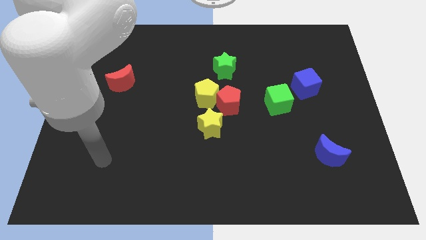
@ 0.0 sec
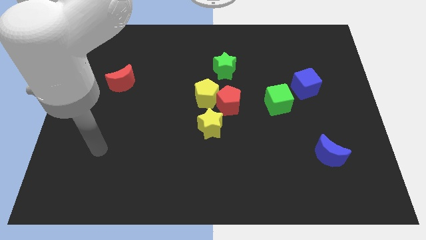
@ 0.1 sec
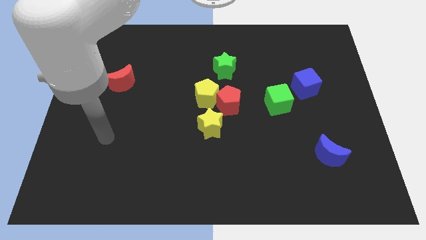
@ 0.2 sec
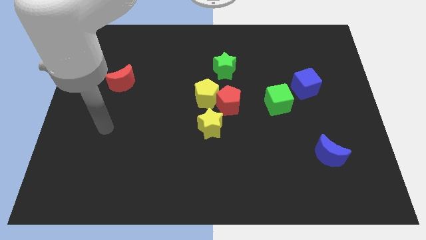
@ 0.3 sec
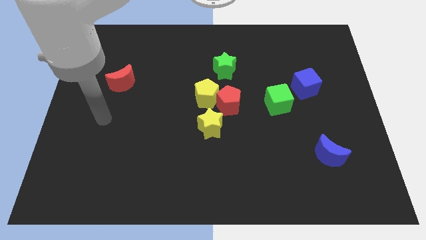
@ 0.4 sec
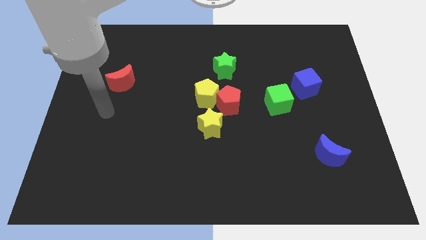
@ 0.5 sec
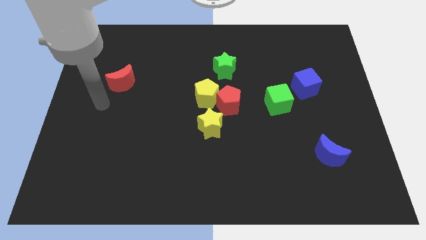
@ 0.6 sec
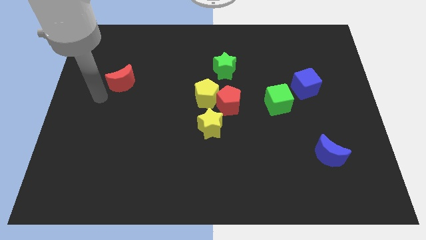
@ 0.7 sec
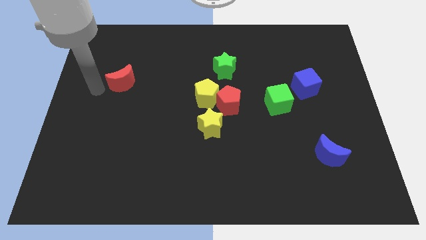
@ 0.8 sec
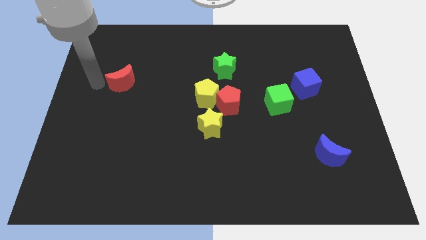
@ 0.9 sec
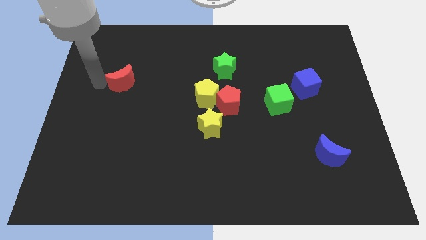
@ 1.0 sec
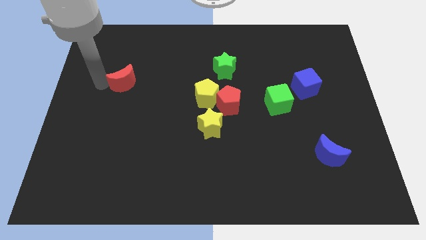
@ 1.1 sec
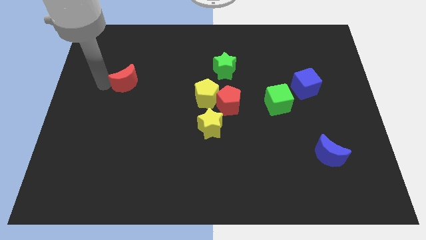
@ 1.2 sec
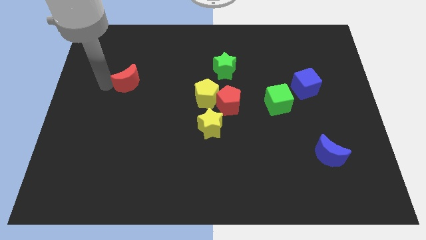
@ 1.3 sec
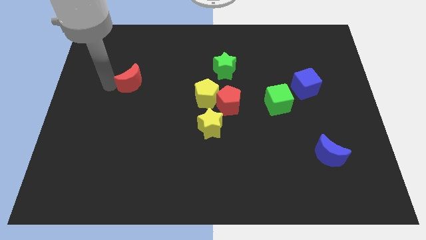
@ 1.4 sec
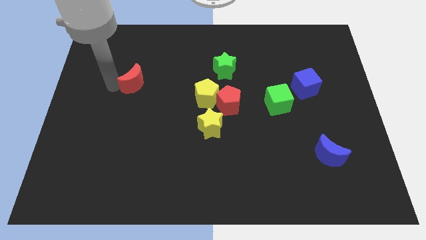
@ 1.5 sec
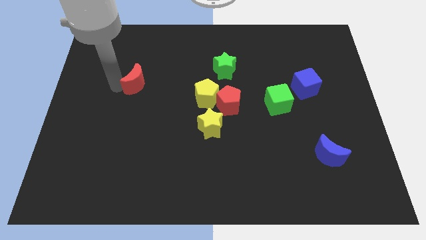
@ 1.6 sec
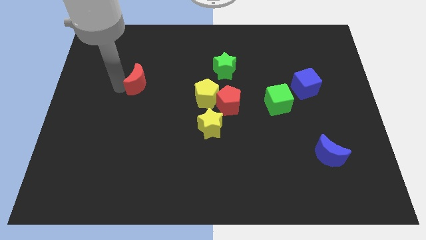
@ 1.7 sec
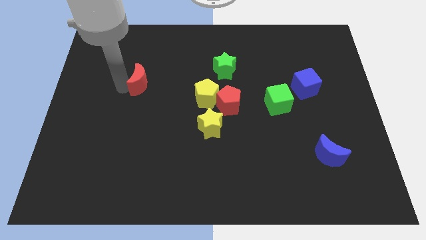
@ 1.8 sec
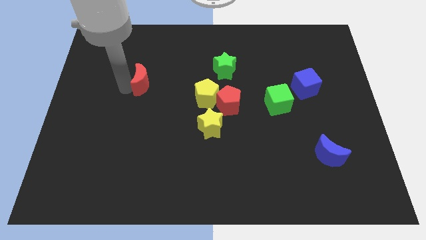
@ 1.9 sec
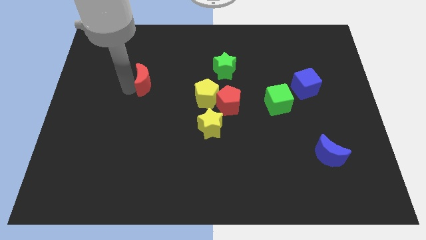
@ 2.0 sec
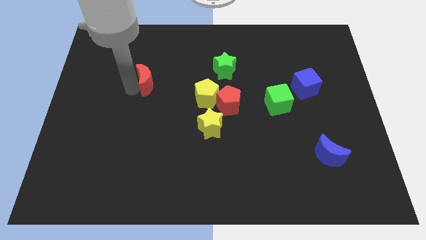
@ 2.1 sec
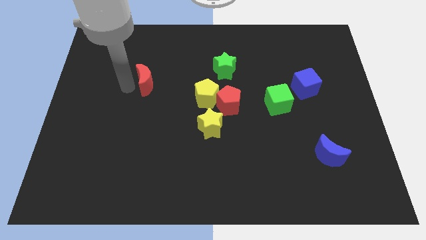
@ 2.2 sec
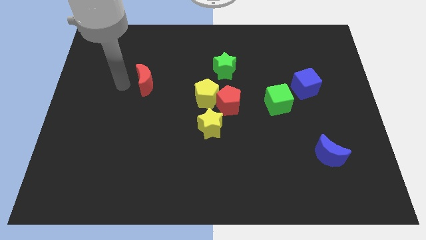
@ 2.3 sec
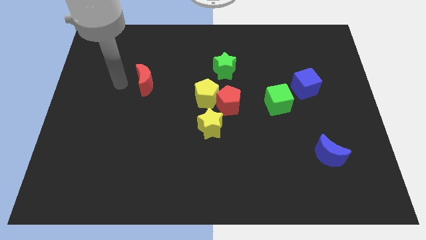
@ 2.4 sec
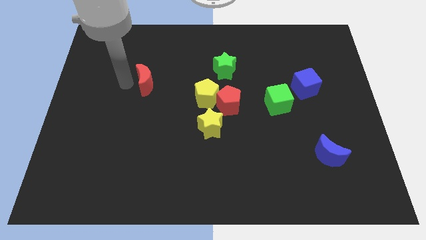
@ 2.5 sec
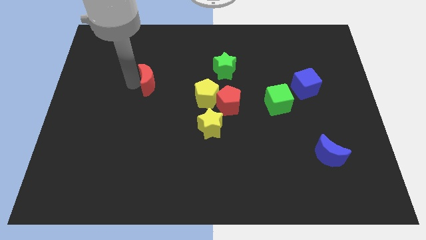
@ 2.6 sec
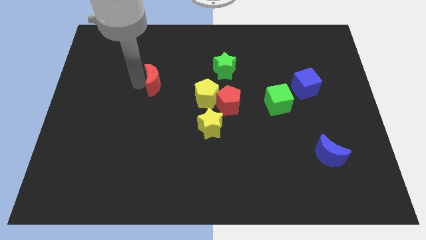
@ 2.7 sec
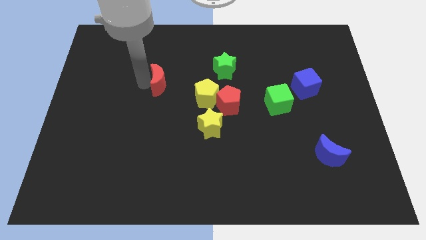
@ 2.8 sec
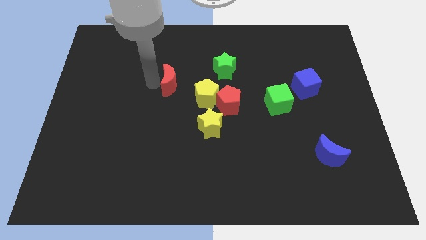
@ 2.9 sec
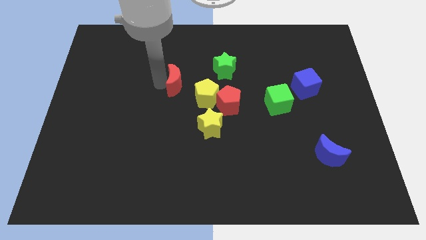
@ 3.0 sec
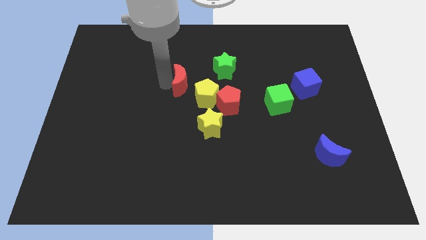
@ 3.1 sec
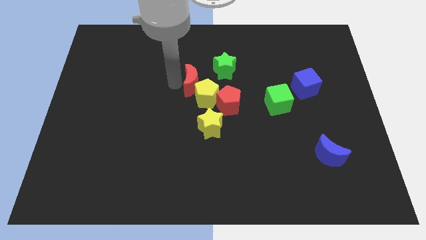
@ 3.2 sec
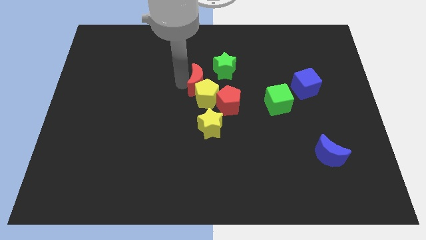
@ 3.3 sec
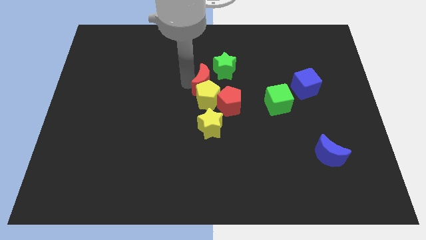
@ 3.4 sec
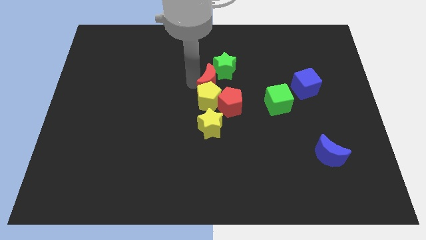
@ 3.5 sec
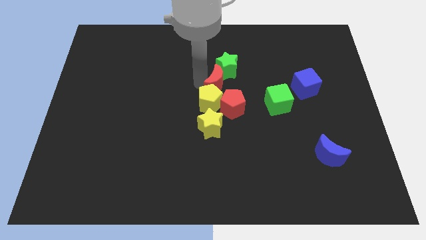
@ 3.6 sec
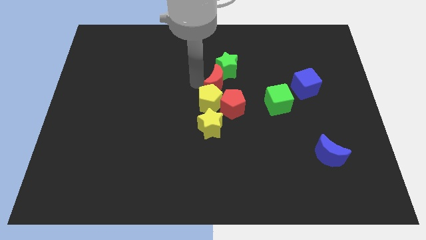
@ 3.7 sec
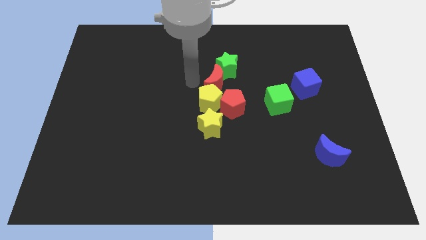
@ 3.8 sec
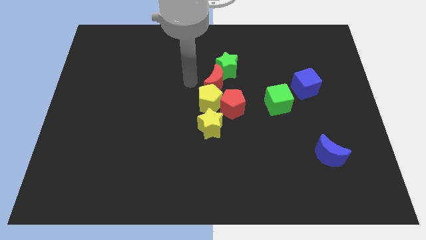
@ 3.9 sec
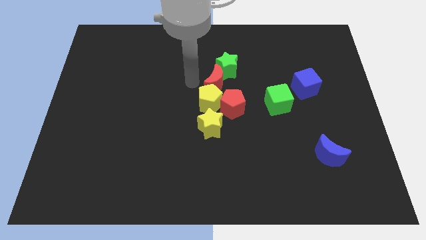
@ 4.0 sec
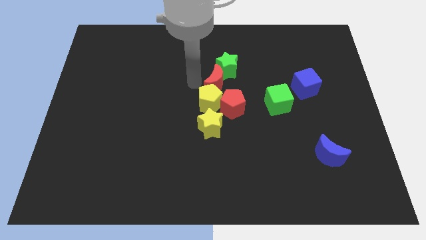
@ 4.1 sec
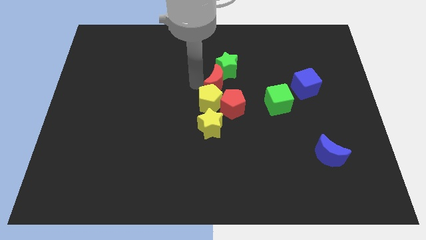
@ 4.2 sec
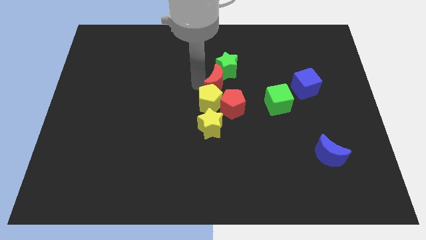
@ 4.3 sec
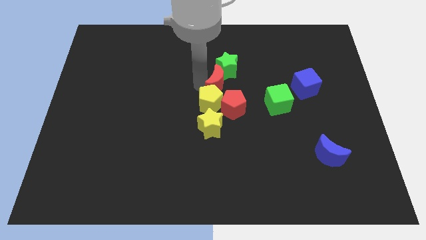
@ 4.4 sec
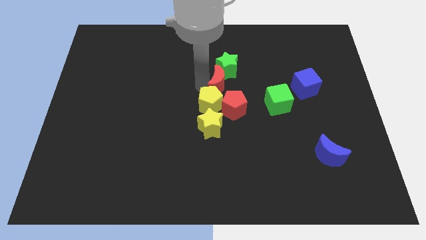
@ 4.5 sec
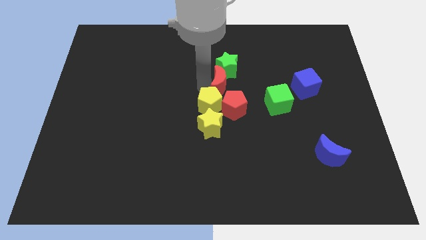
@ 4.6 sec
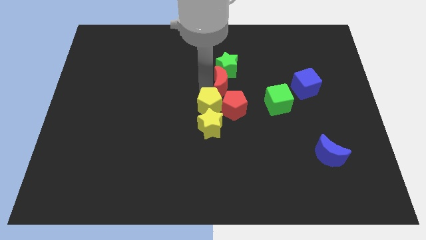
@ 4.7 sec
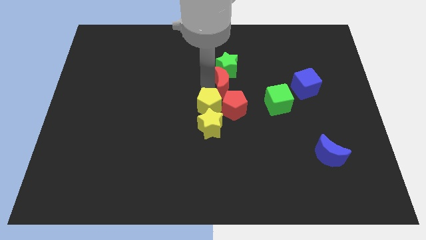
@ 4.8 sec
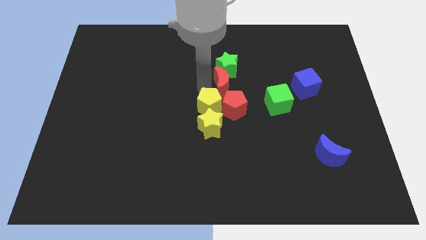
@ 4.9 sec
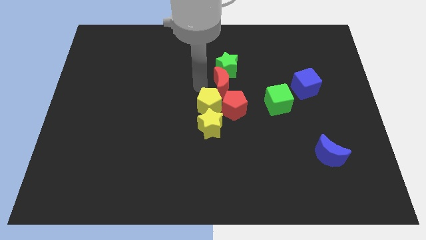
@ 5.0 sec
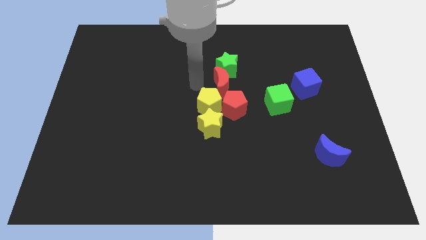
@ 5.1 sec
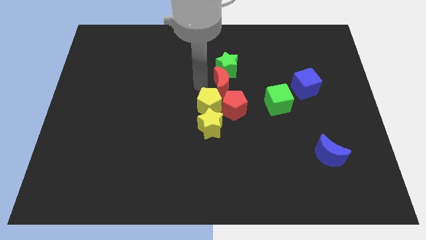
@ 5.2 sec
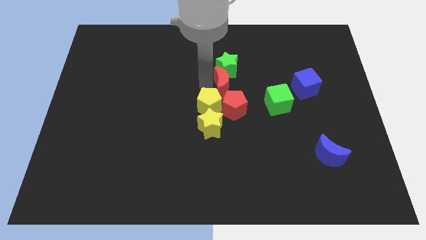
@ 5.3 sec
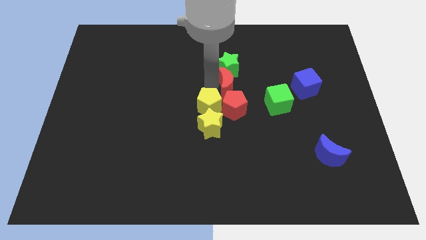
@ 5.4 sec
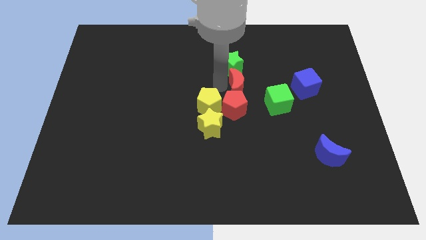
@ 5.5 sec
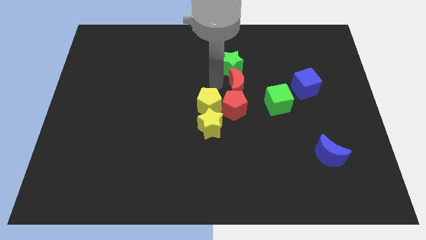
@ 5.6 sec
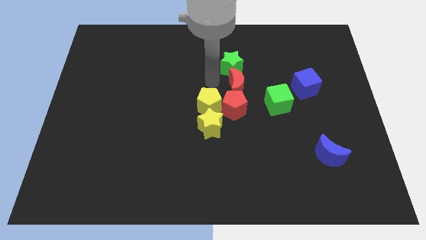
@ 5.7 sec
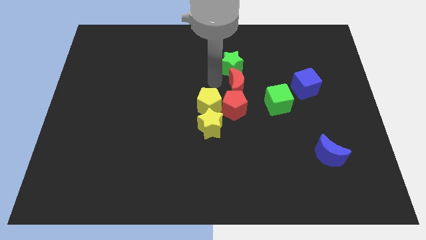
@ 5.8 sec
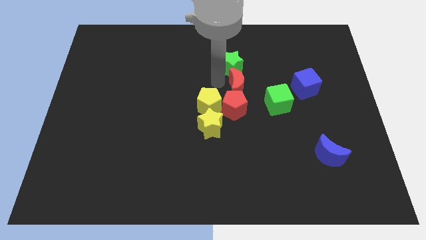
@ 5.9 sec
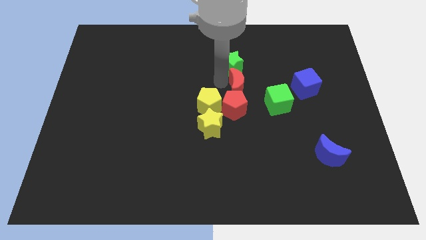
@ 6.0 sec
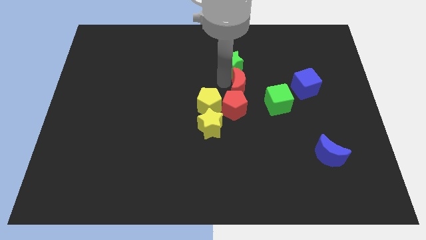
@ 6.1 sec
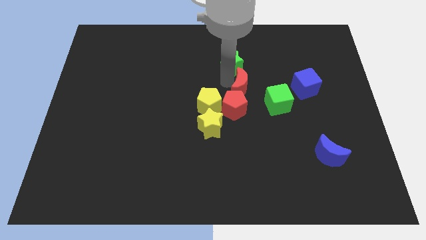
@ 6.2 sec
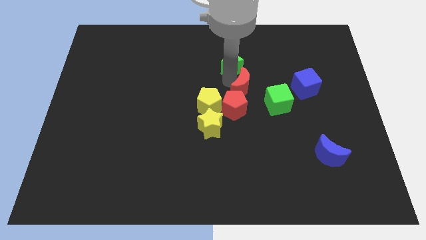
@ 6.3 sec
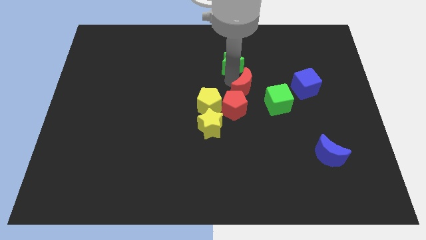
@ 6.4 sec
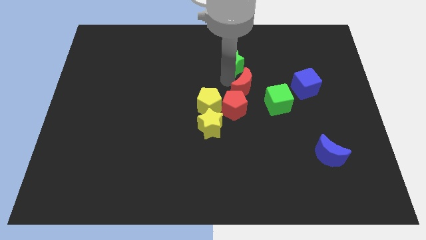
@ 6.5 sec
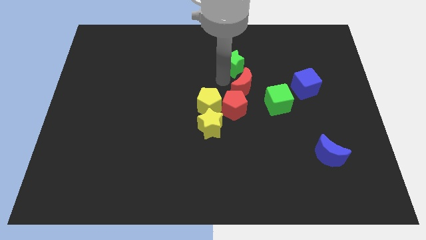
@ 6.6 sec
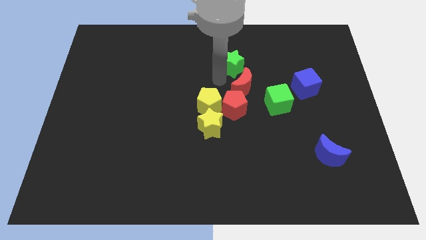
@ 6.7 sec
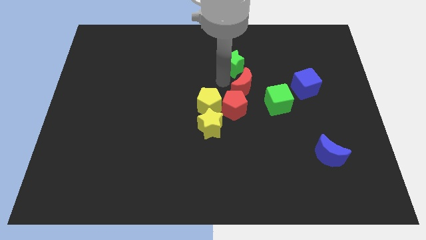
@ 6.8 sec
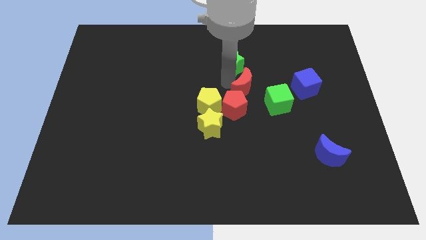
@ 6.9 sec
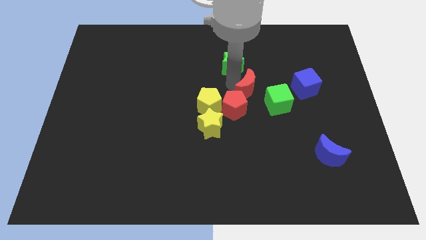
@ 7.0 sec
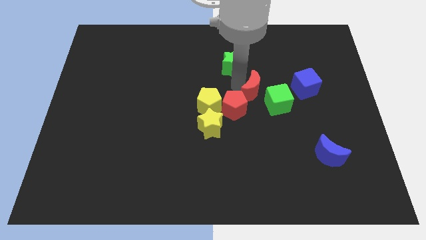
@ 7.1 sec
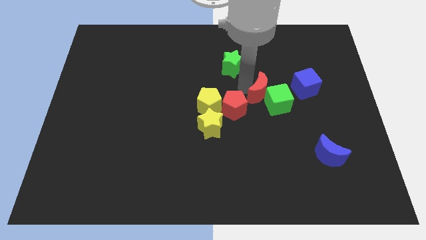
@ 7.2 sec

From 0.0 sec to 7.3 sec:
push the red moon towards the green cube
